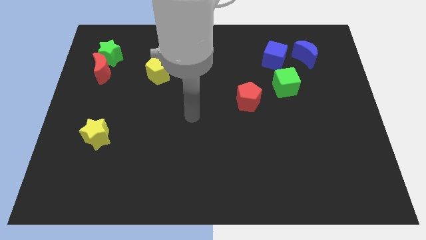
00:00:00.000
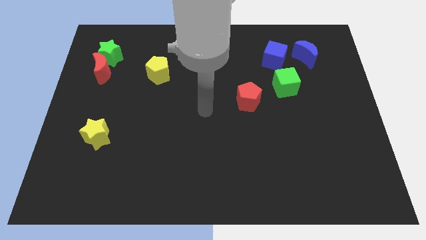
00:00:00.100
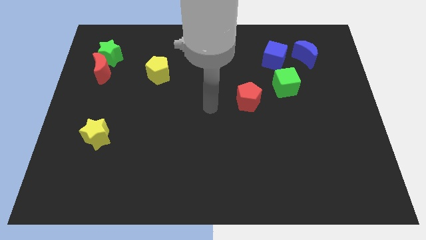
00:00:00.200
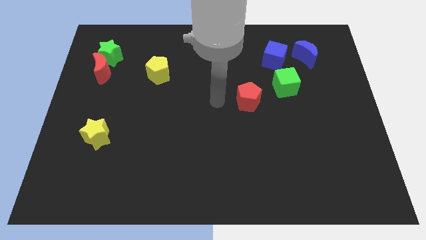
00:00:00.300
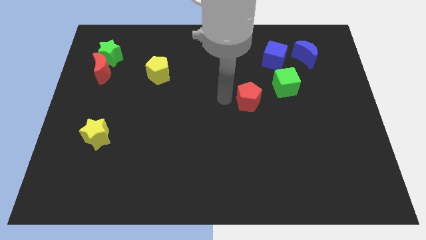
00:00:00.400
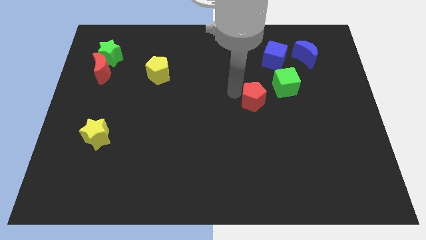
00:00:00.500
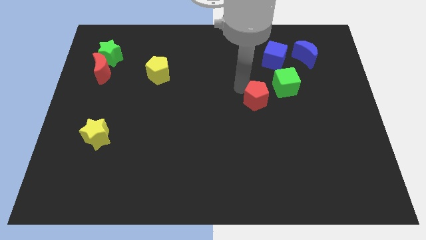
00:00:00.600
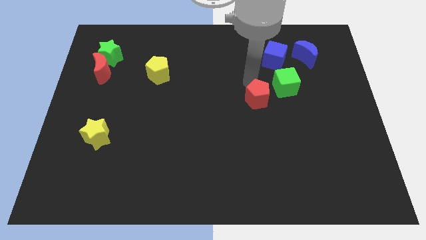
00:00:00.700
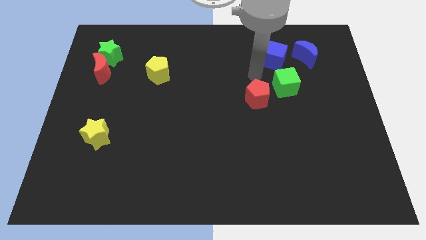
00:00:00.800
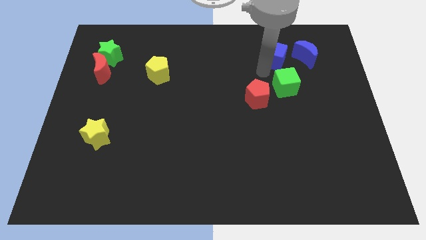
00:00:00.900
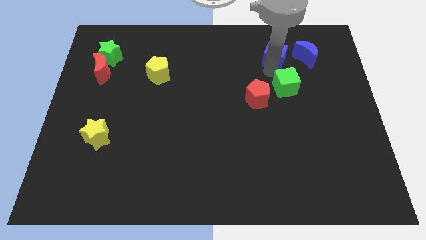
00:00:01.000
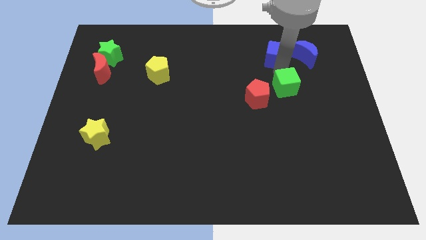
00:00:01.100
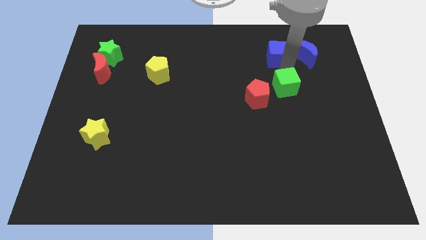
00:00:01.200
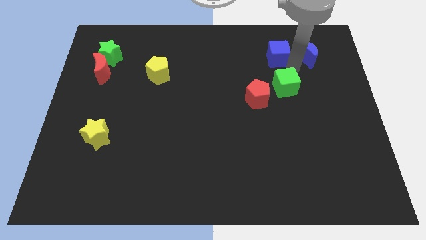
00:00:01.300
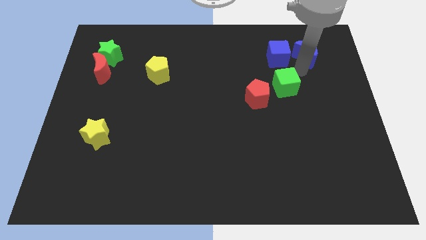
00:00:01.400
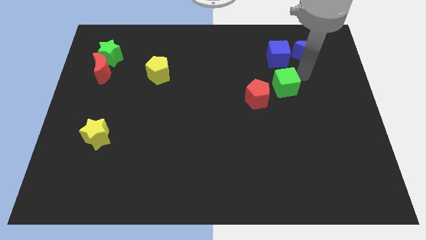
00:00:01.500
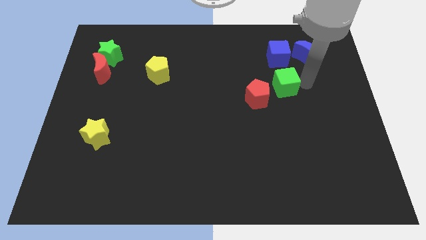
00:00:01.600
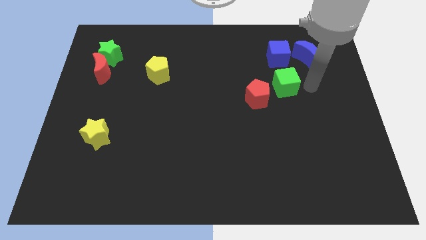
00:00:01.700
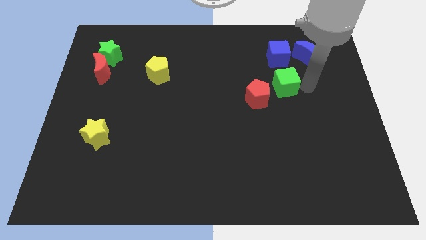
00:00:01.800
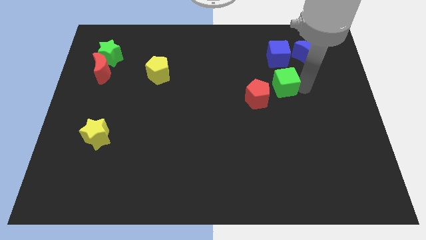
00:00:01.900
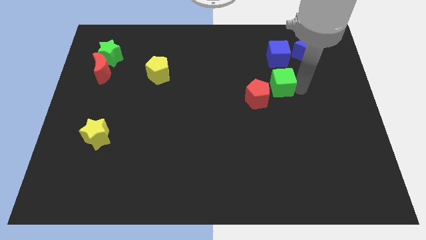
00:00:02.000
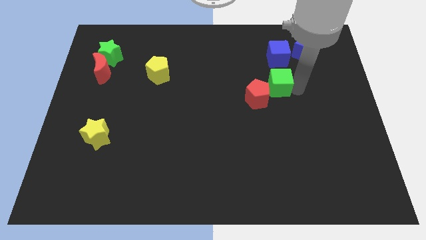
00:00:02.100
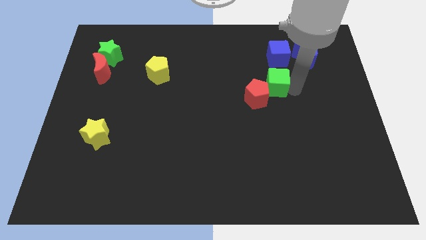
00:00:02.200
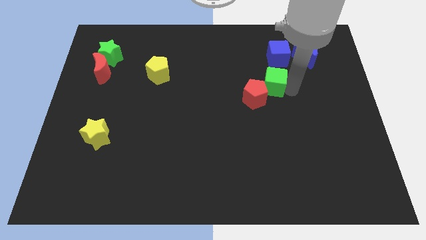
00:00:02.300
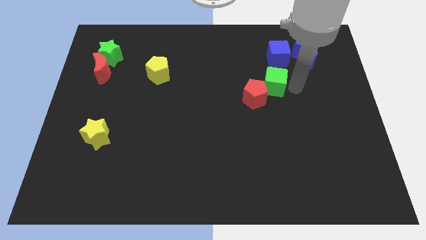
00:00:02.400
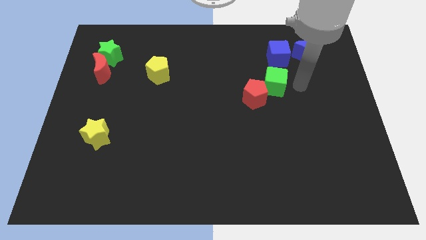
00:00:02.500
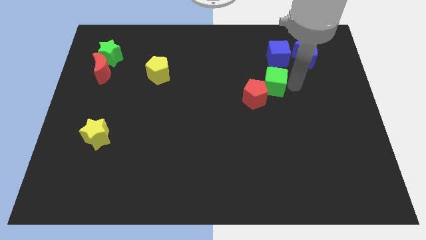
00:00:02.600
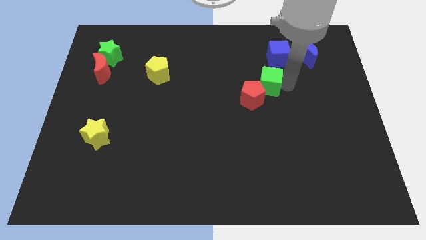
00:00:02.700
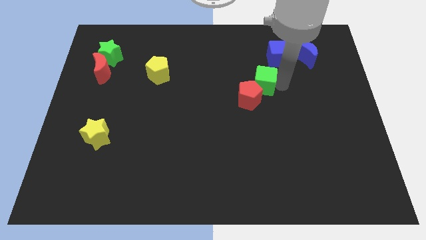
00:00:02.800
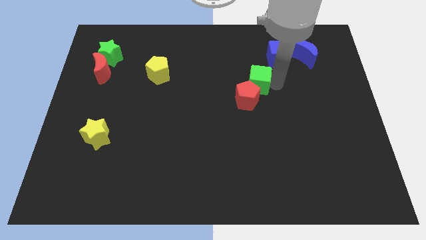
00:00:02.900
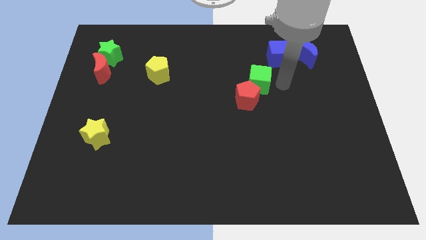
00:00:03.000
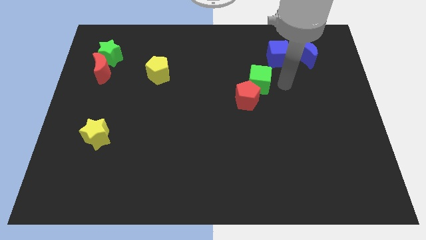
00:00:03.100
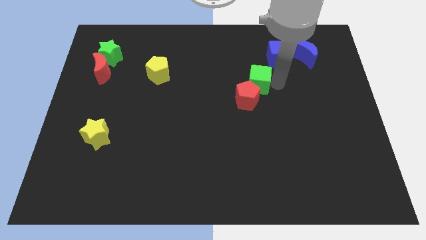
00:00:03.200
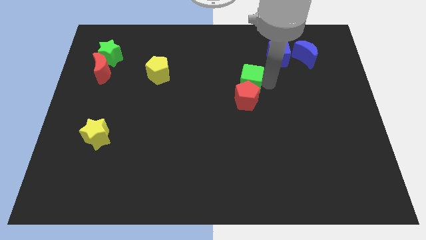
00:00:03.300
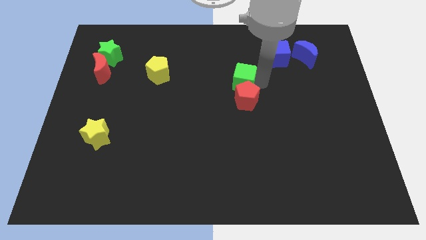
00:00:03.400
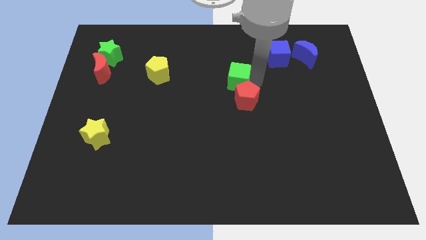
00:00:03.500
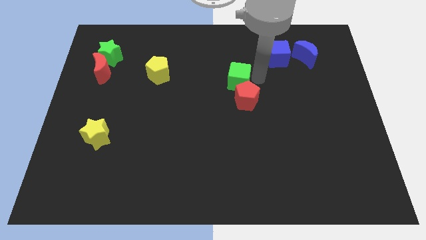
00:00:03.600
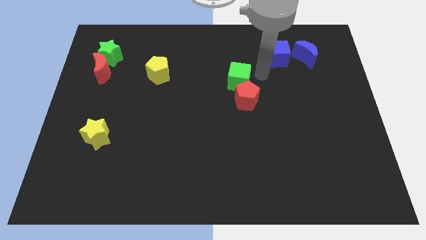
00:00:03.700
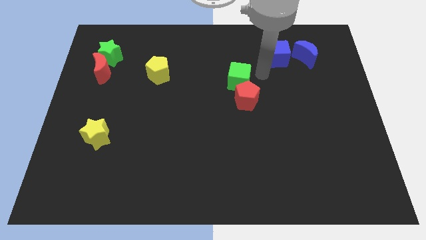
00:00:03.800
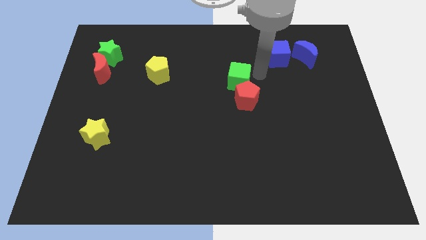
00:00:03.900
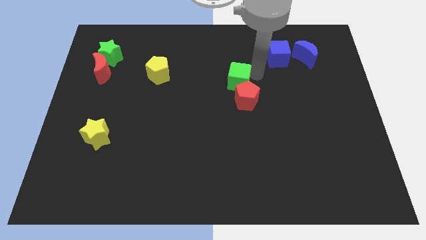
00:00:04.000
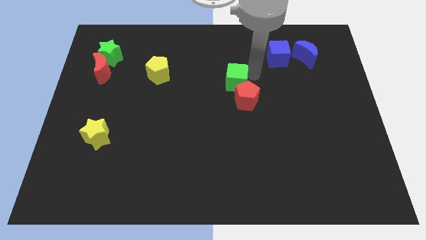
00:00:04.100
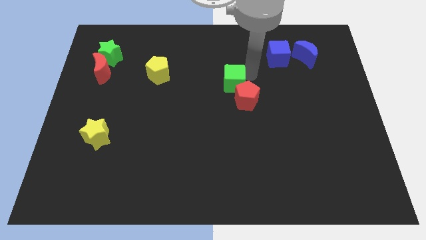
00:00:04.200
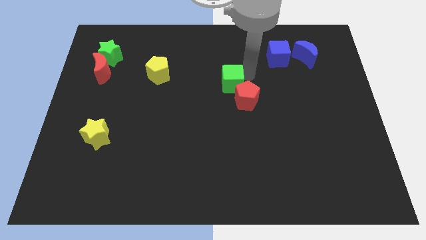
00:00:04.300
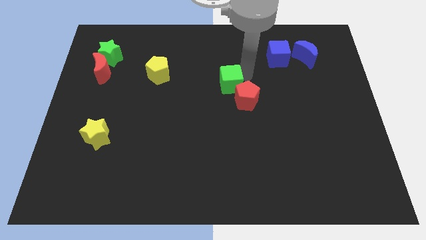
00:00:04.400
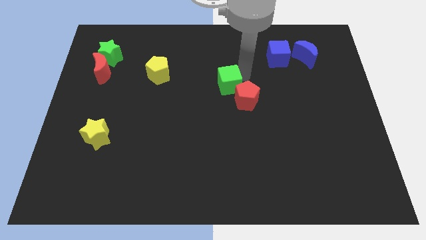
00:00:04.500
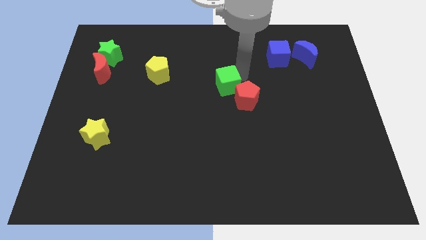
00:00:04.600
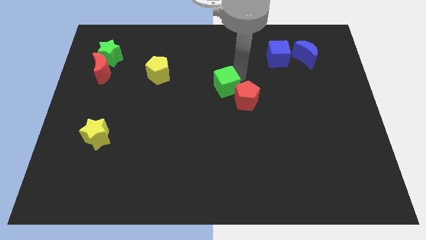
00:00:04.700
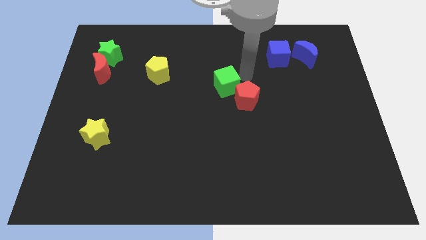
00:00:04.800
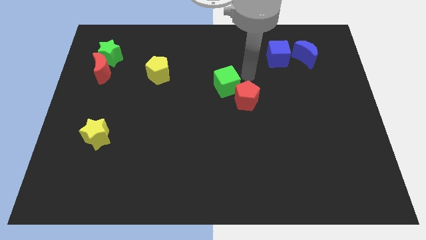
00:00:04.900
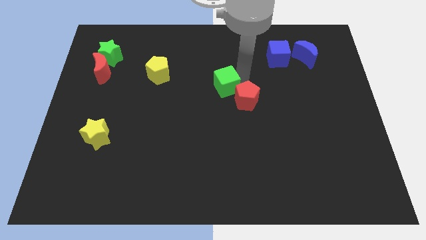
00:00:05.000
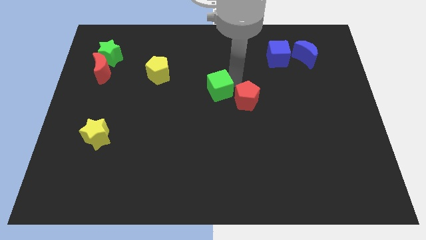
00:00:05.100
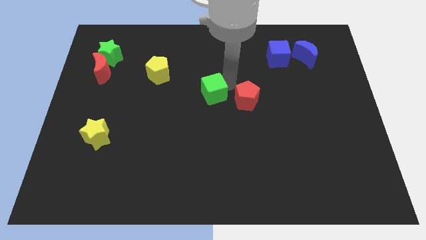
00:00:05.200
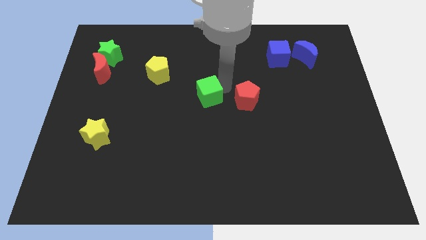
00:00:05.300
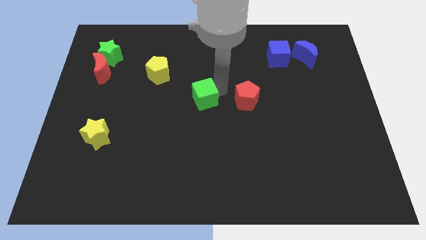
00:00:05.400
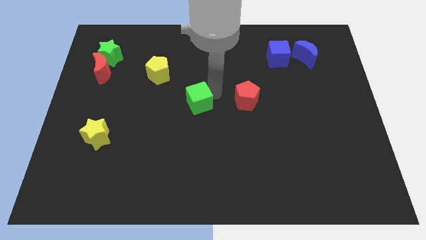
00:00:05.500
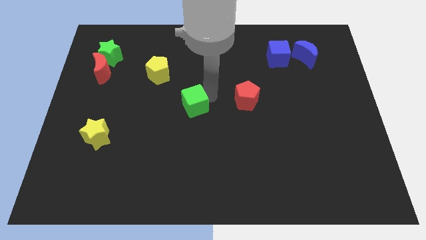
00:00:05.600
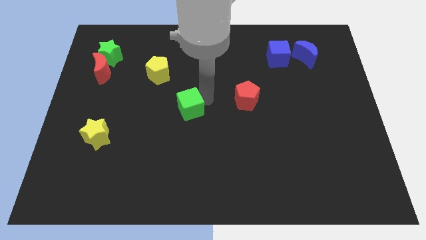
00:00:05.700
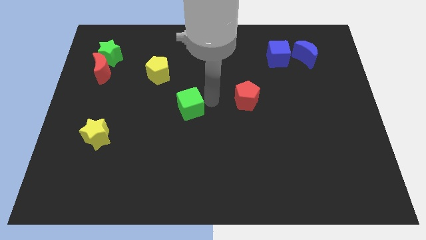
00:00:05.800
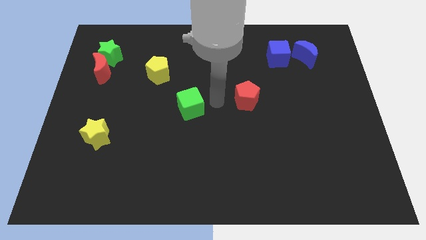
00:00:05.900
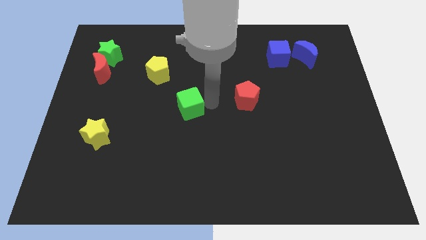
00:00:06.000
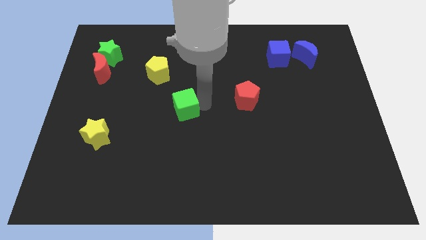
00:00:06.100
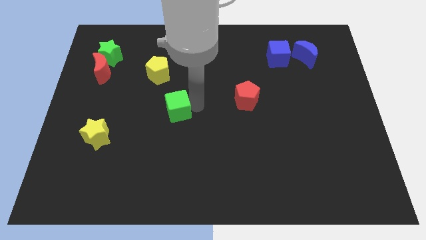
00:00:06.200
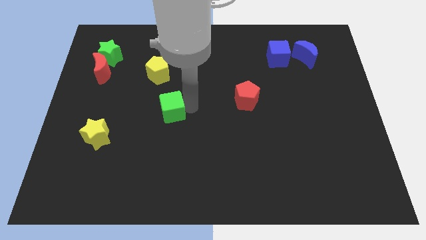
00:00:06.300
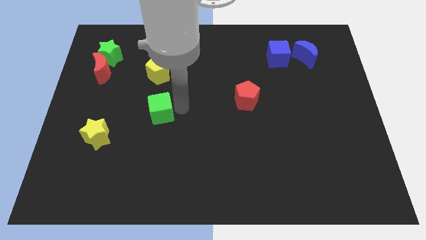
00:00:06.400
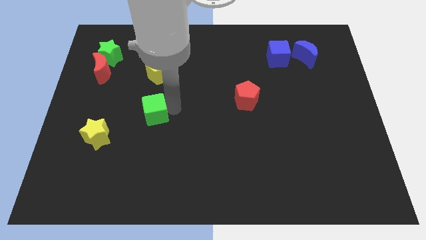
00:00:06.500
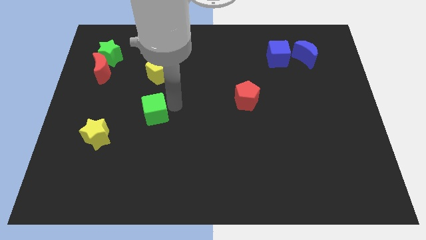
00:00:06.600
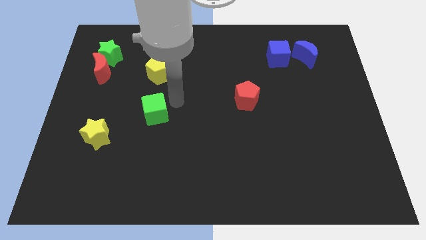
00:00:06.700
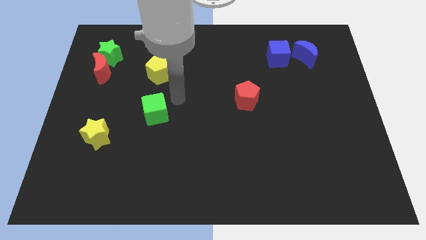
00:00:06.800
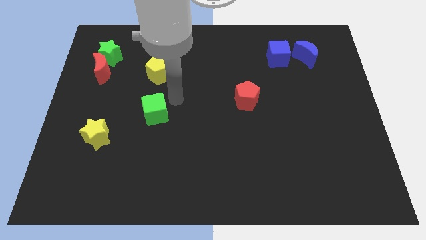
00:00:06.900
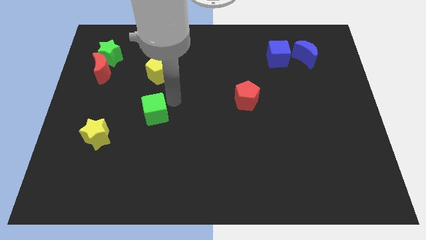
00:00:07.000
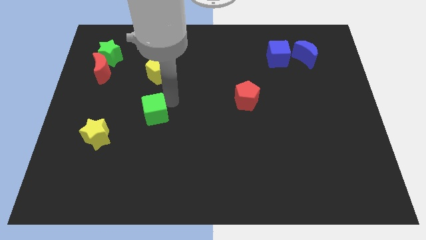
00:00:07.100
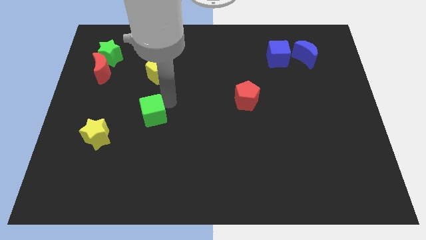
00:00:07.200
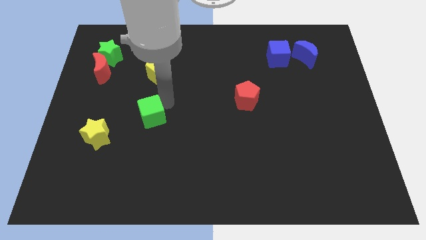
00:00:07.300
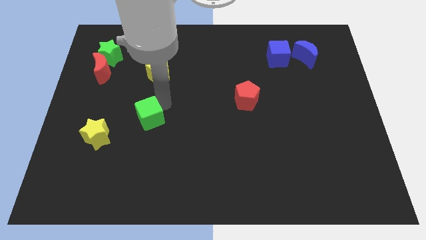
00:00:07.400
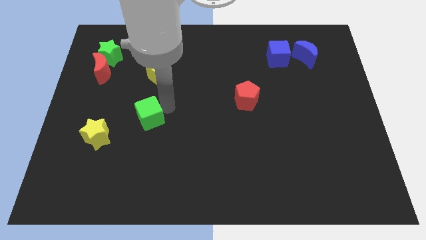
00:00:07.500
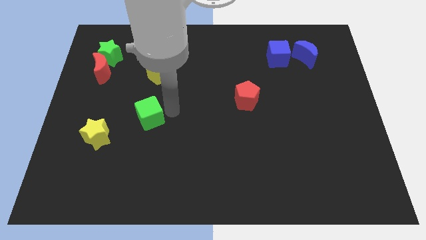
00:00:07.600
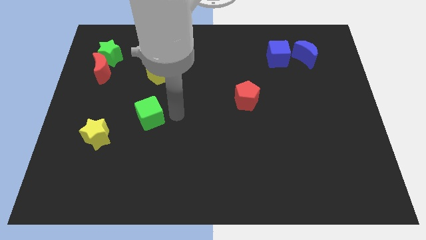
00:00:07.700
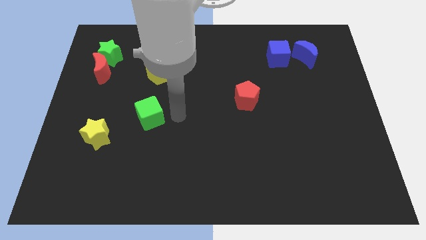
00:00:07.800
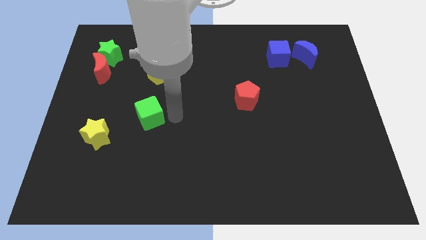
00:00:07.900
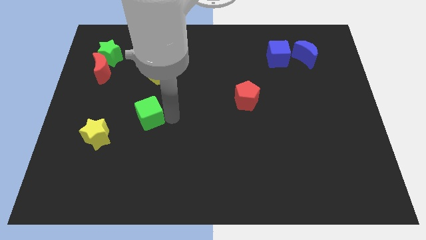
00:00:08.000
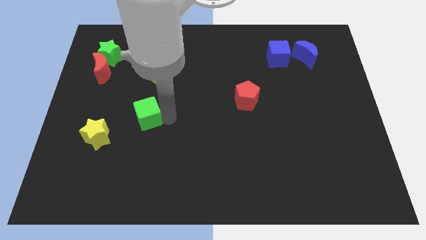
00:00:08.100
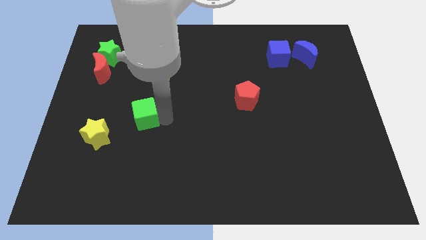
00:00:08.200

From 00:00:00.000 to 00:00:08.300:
put the green cube diagonally up and to the right of the yellow star
